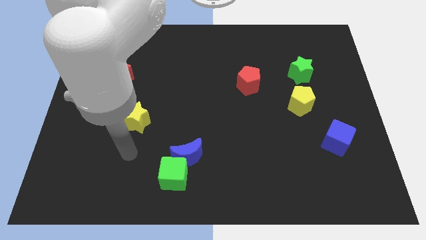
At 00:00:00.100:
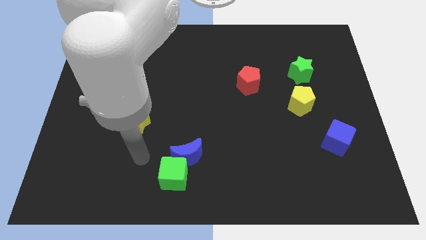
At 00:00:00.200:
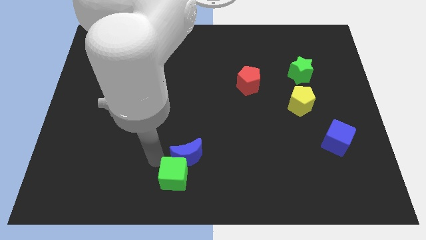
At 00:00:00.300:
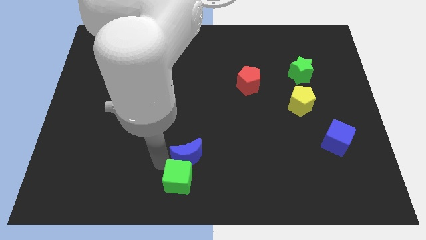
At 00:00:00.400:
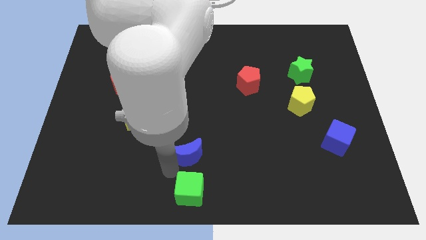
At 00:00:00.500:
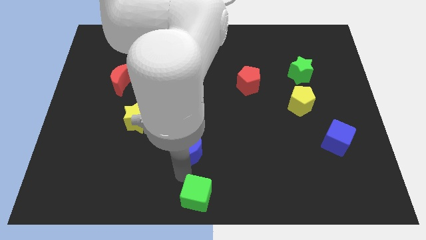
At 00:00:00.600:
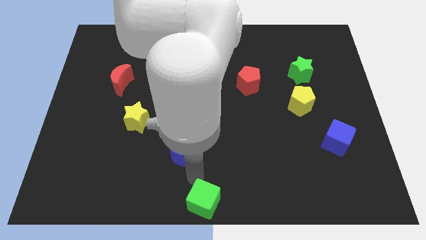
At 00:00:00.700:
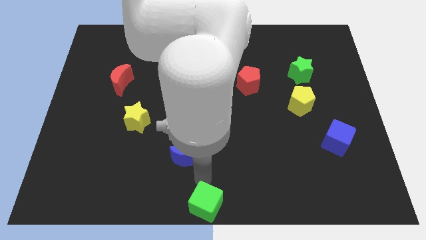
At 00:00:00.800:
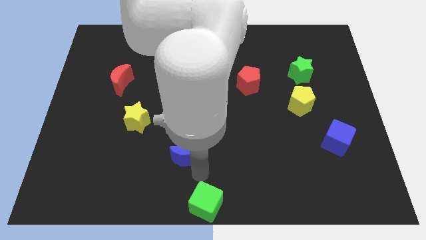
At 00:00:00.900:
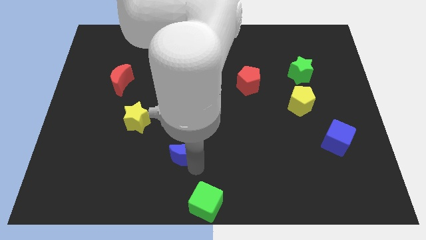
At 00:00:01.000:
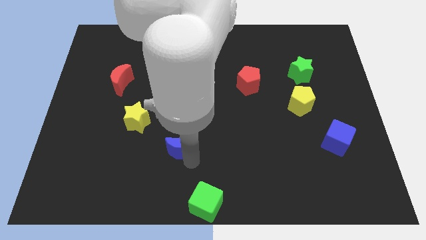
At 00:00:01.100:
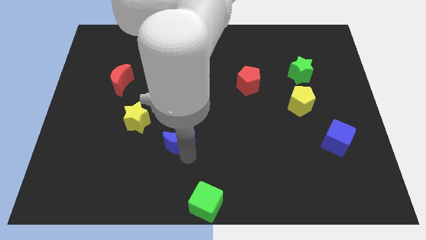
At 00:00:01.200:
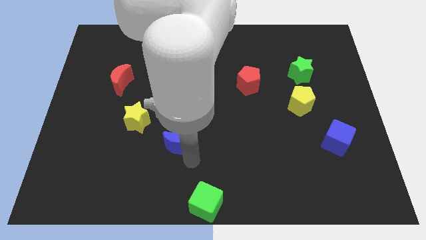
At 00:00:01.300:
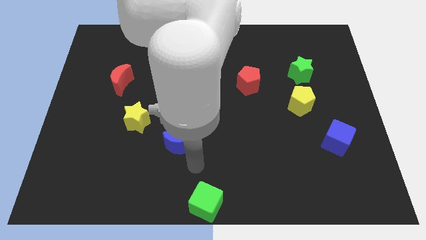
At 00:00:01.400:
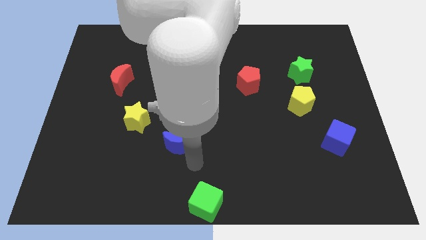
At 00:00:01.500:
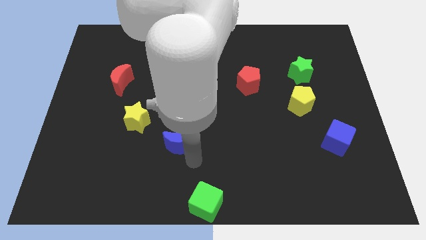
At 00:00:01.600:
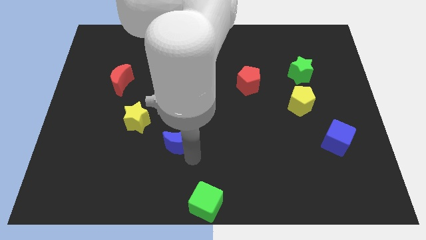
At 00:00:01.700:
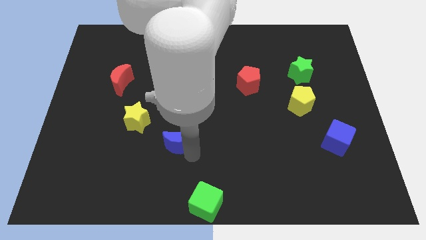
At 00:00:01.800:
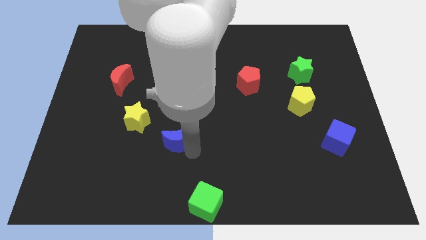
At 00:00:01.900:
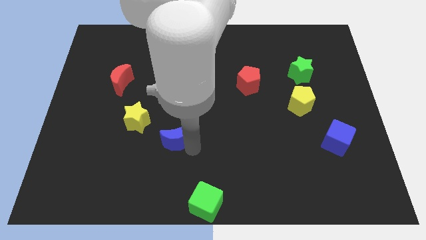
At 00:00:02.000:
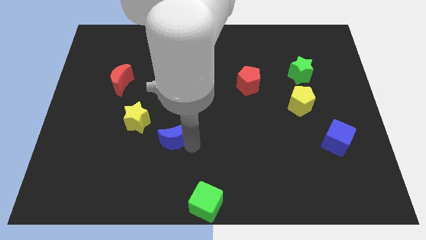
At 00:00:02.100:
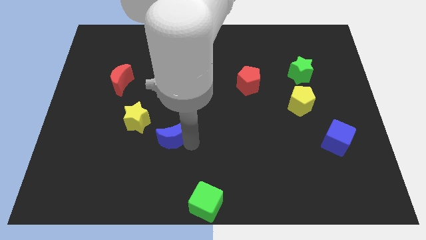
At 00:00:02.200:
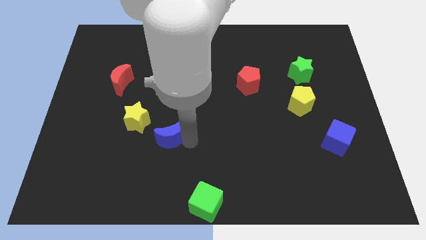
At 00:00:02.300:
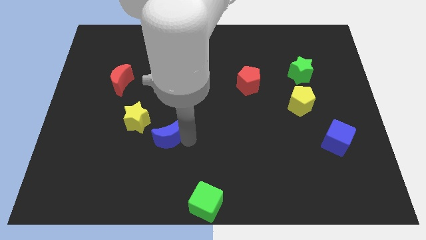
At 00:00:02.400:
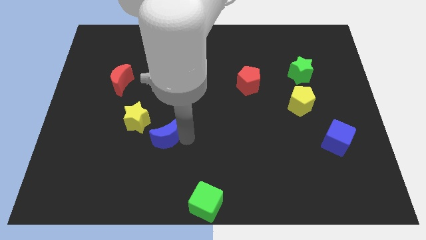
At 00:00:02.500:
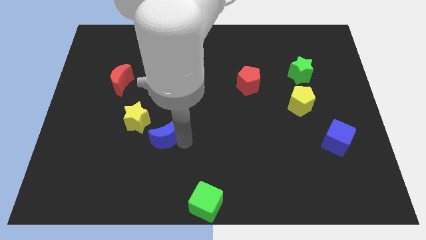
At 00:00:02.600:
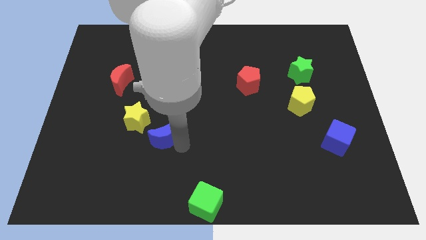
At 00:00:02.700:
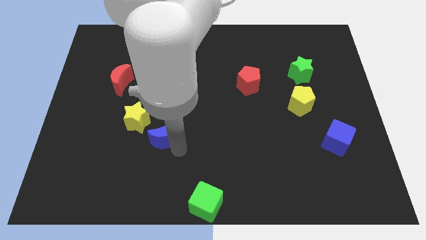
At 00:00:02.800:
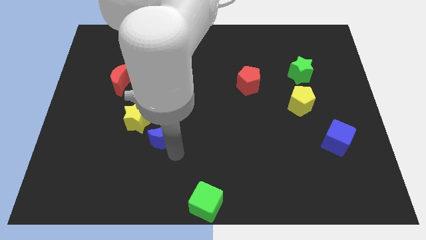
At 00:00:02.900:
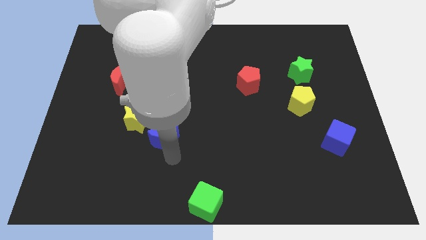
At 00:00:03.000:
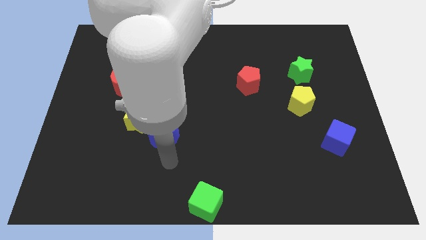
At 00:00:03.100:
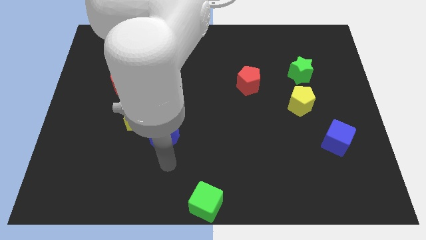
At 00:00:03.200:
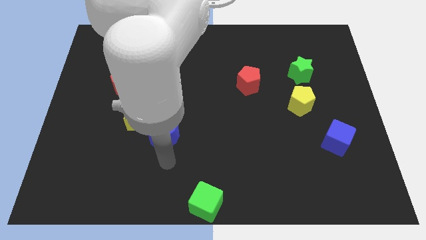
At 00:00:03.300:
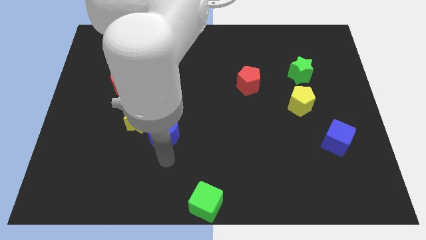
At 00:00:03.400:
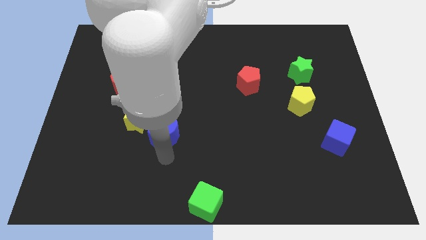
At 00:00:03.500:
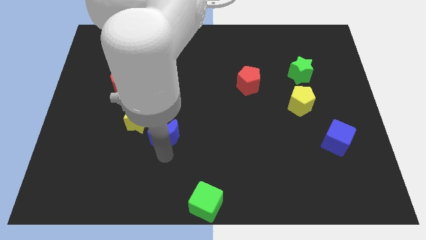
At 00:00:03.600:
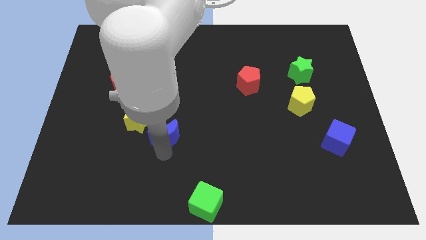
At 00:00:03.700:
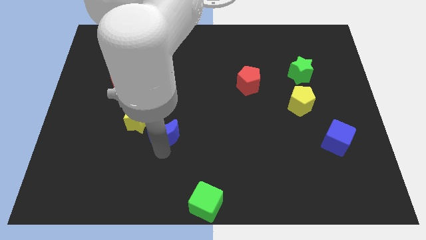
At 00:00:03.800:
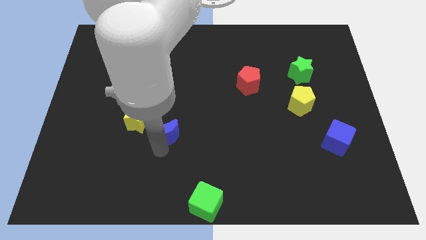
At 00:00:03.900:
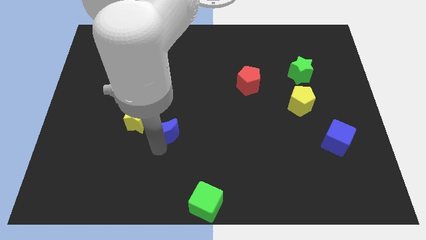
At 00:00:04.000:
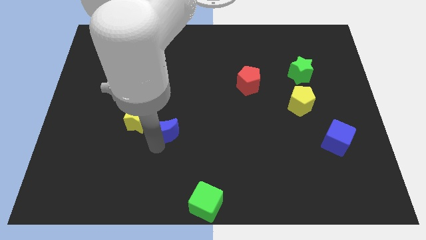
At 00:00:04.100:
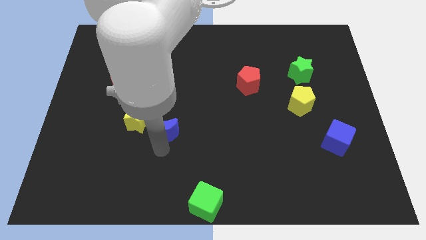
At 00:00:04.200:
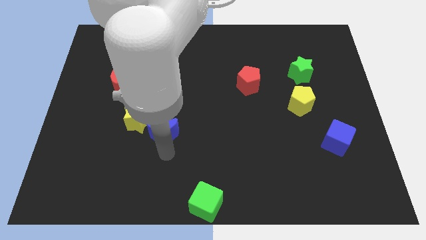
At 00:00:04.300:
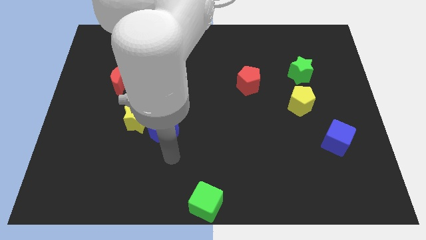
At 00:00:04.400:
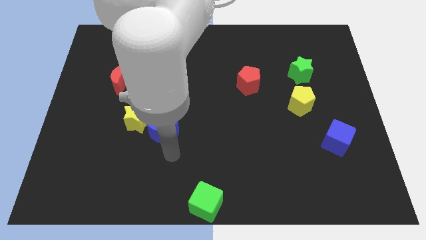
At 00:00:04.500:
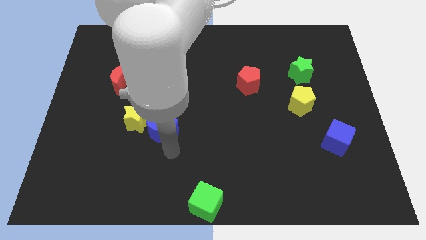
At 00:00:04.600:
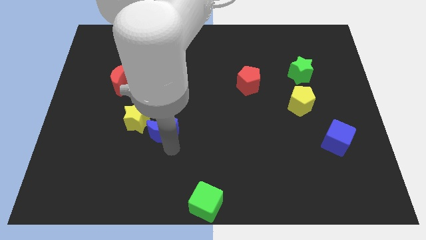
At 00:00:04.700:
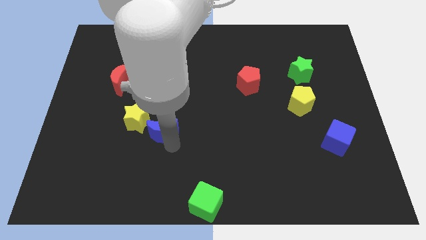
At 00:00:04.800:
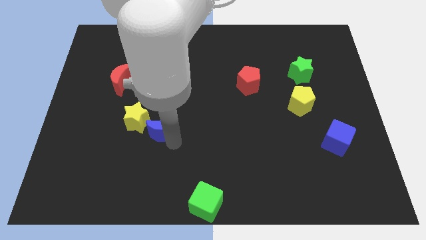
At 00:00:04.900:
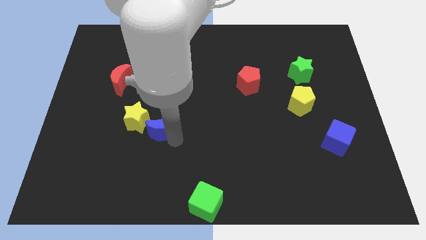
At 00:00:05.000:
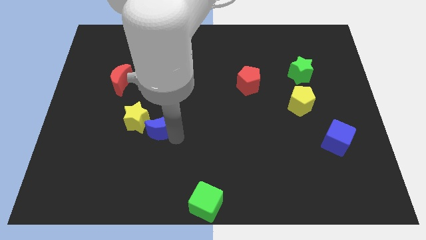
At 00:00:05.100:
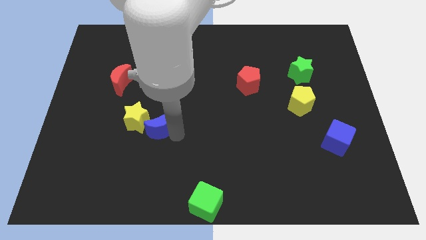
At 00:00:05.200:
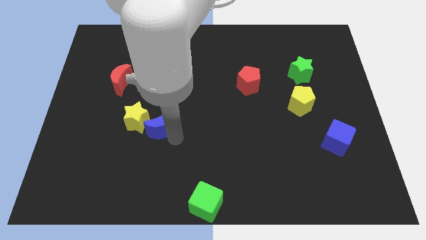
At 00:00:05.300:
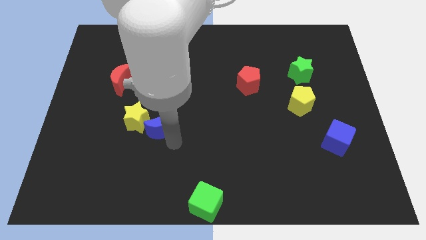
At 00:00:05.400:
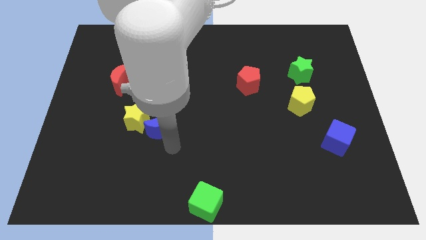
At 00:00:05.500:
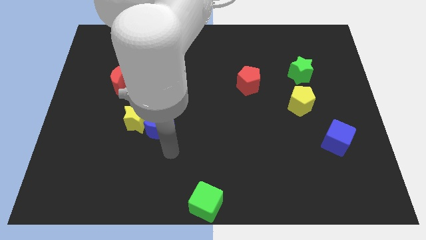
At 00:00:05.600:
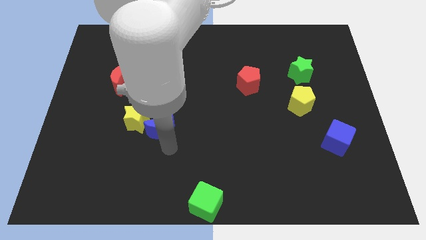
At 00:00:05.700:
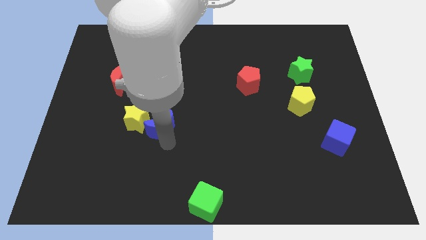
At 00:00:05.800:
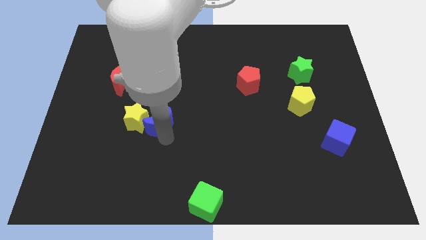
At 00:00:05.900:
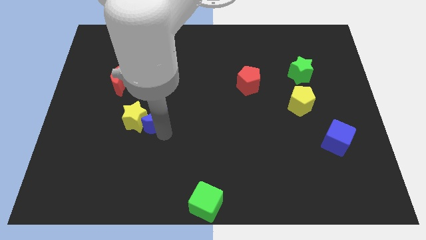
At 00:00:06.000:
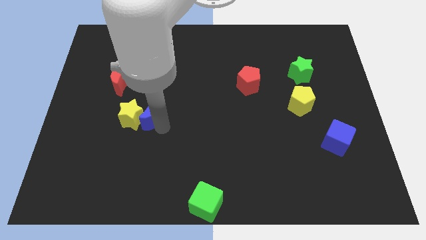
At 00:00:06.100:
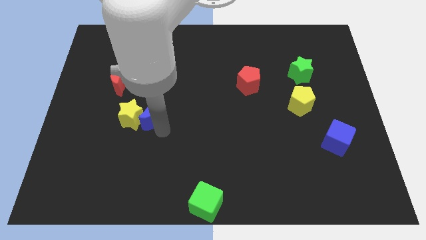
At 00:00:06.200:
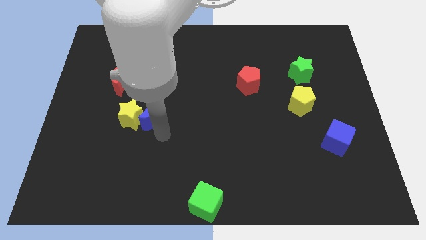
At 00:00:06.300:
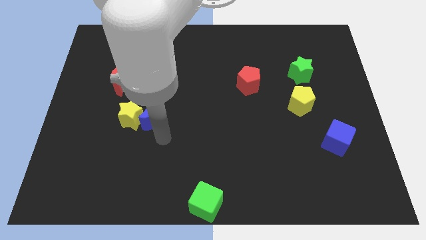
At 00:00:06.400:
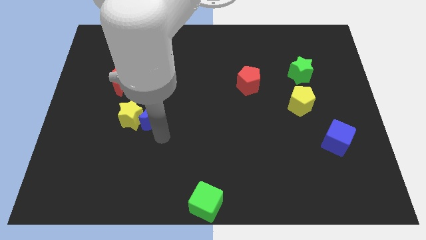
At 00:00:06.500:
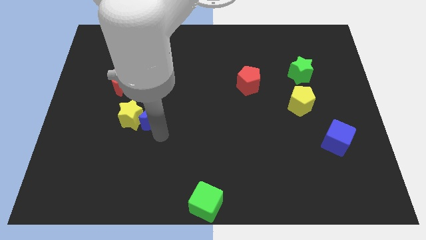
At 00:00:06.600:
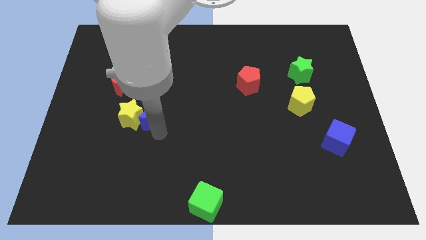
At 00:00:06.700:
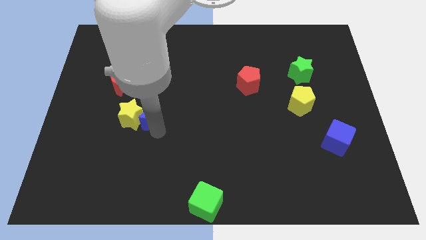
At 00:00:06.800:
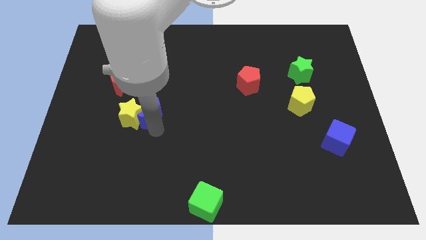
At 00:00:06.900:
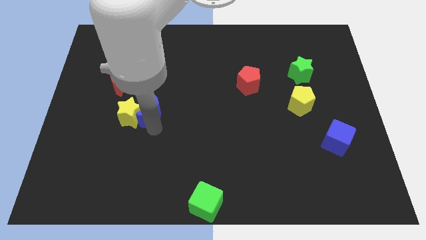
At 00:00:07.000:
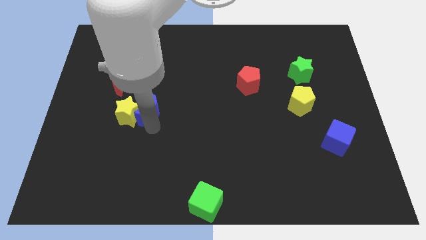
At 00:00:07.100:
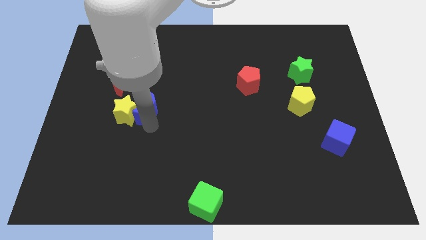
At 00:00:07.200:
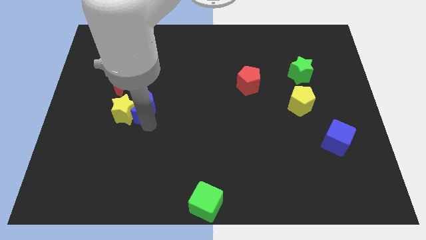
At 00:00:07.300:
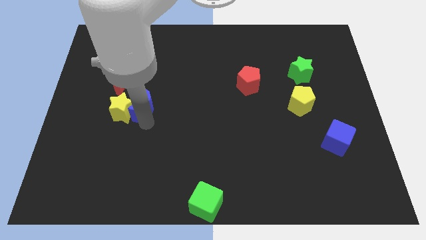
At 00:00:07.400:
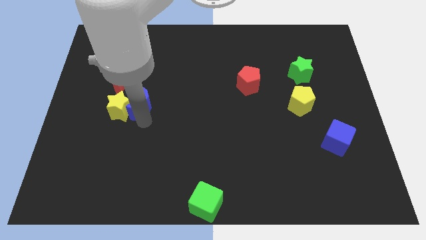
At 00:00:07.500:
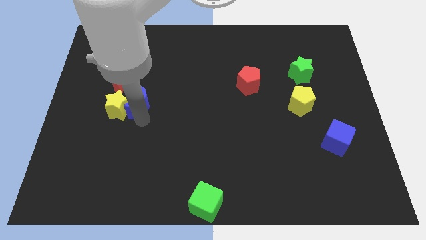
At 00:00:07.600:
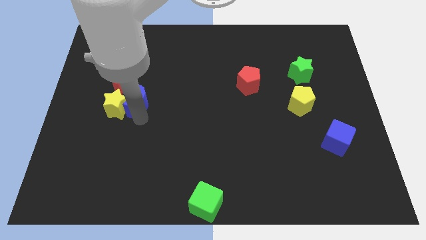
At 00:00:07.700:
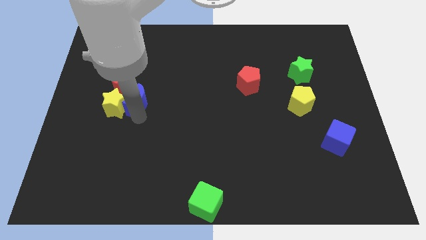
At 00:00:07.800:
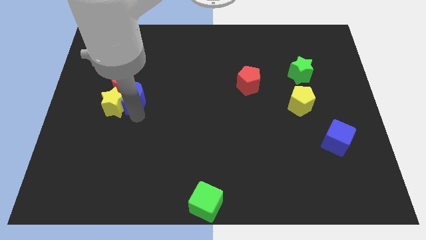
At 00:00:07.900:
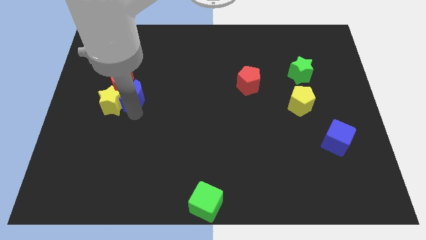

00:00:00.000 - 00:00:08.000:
move the blue moon upwards and left diagonally

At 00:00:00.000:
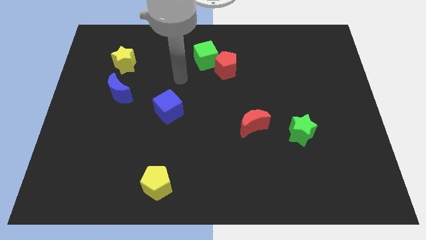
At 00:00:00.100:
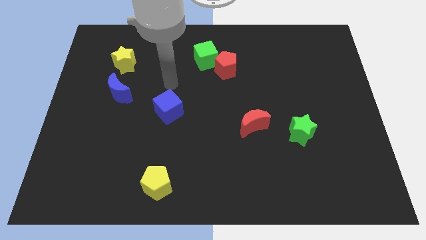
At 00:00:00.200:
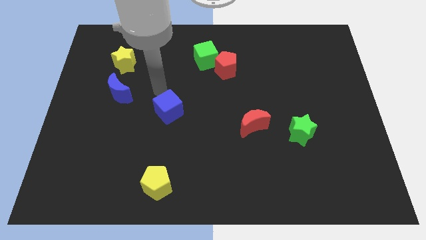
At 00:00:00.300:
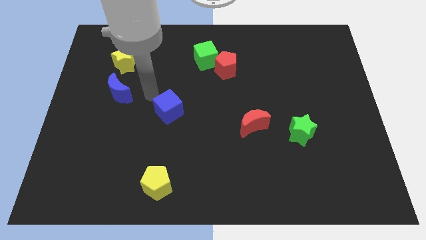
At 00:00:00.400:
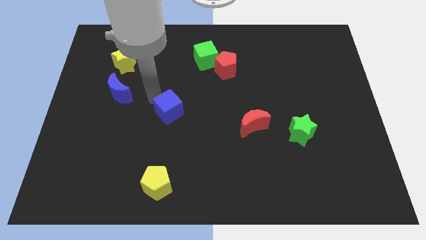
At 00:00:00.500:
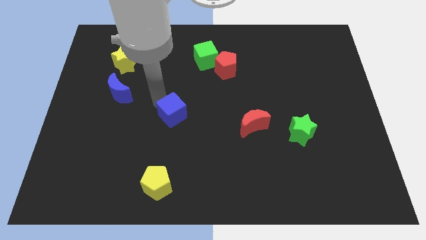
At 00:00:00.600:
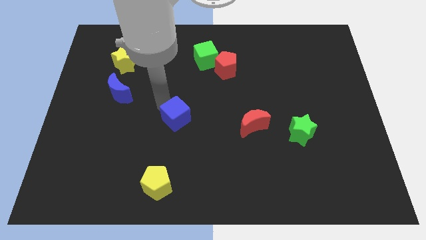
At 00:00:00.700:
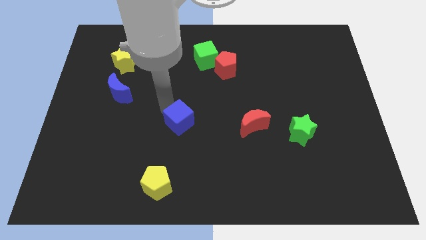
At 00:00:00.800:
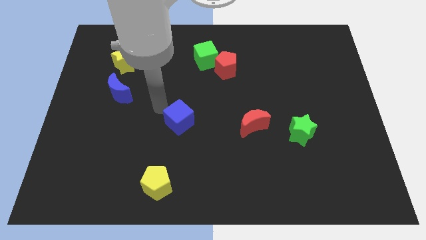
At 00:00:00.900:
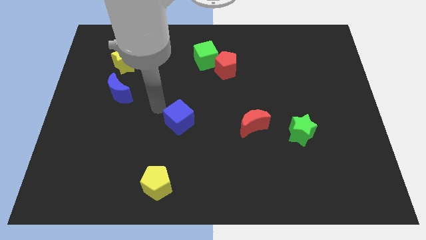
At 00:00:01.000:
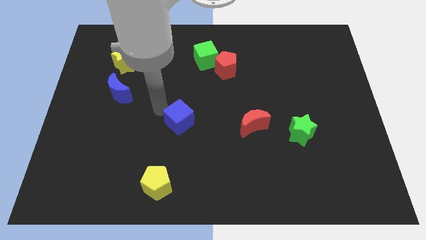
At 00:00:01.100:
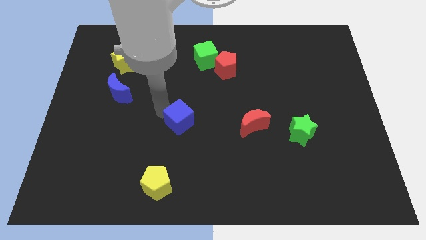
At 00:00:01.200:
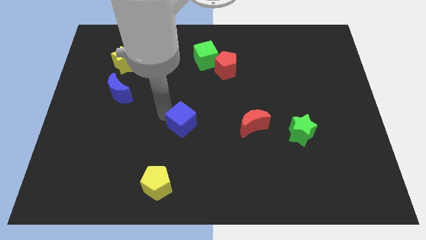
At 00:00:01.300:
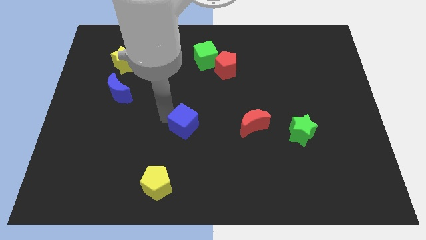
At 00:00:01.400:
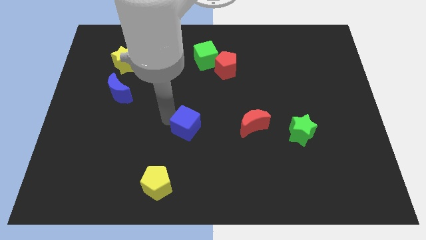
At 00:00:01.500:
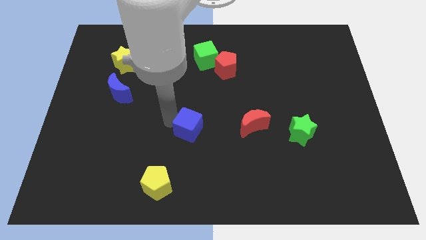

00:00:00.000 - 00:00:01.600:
push the blue cube downwards and to the right diagonally a little
